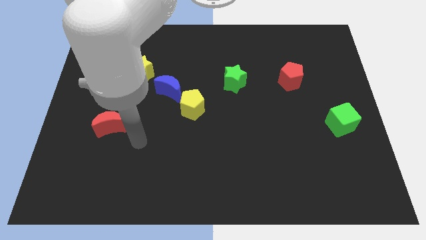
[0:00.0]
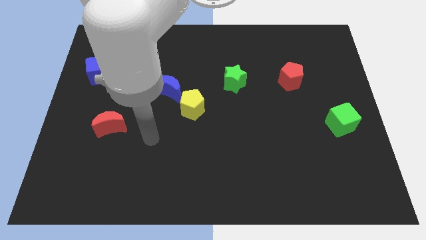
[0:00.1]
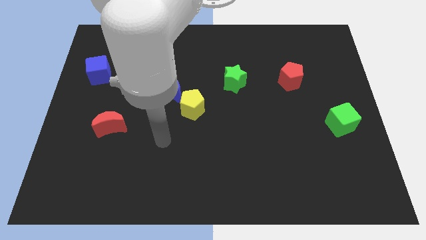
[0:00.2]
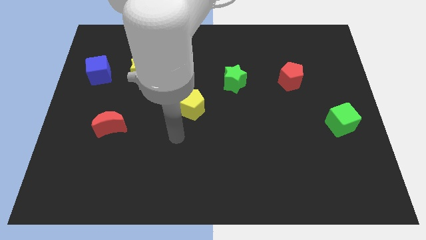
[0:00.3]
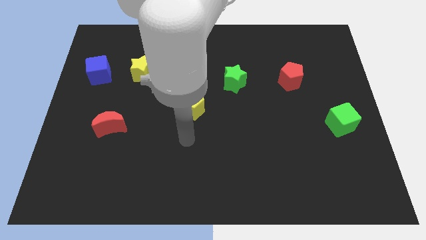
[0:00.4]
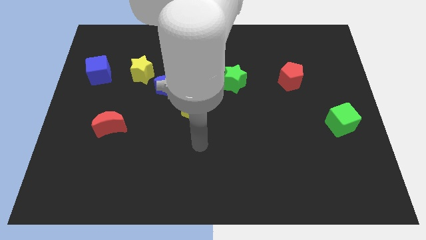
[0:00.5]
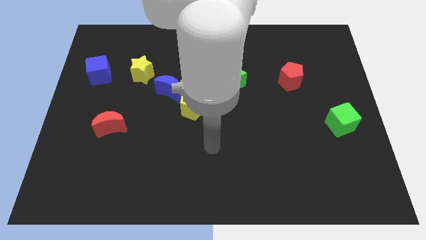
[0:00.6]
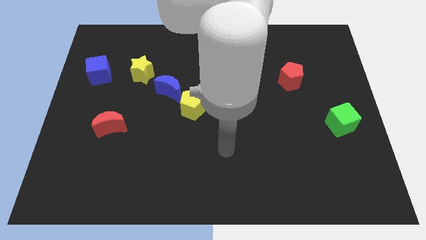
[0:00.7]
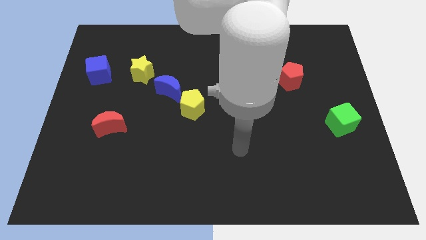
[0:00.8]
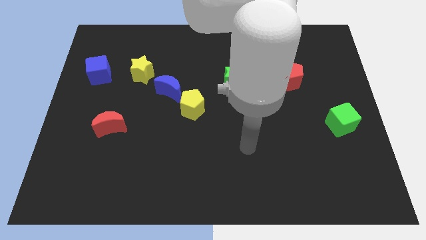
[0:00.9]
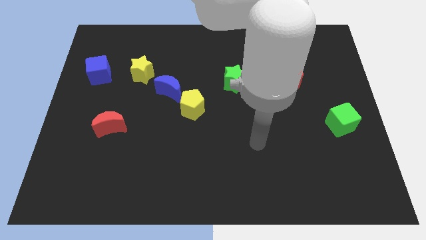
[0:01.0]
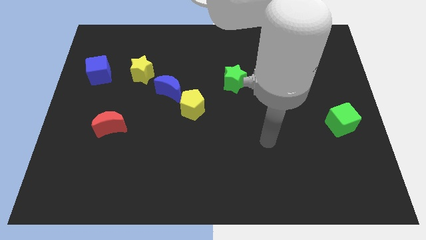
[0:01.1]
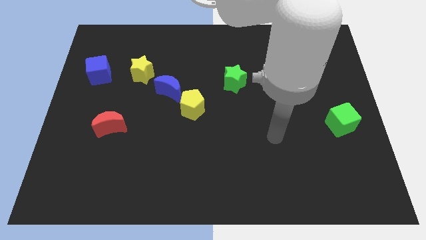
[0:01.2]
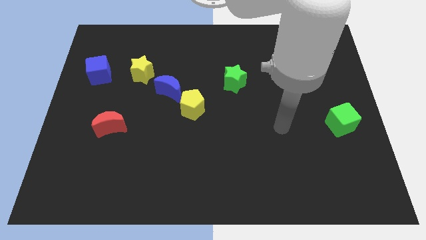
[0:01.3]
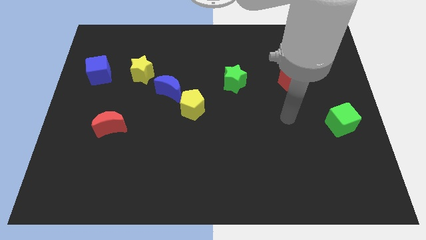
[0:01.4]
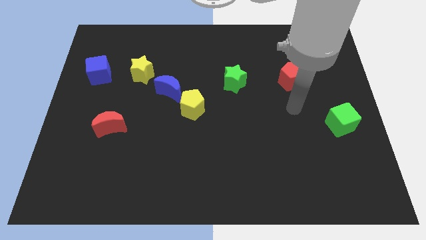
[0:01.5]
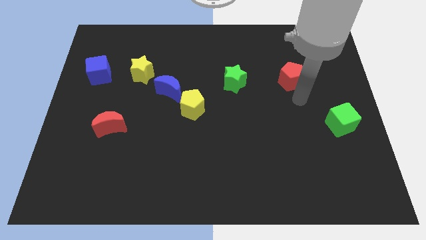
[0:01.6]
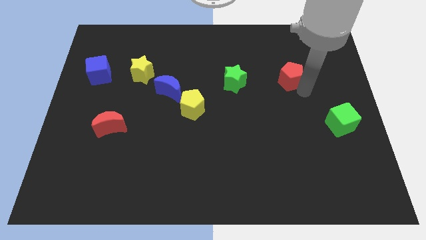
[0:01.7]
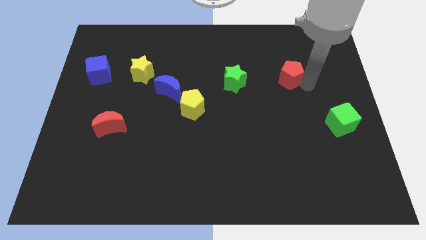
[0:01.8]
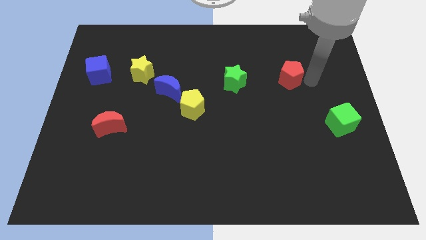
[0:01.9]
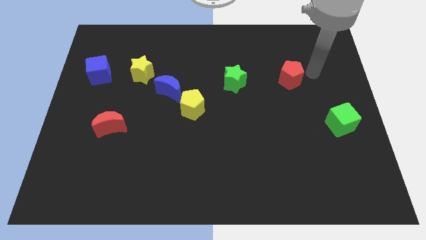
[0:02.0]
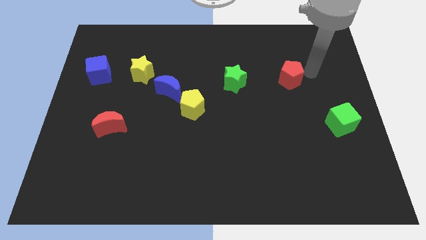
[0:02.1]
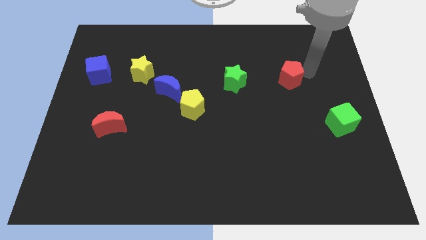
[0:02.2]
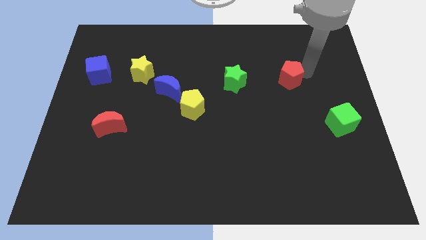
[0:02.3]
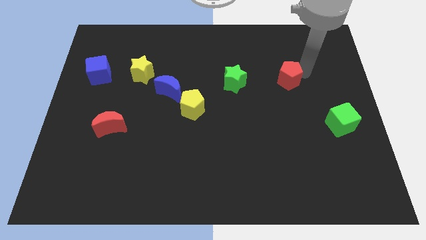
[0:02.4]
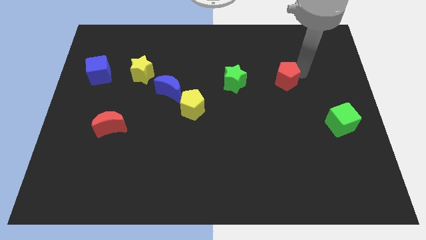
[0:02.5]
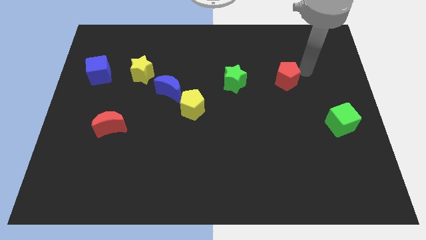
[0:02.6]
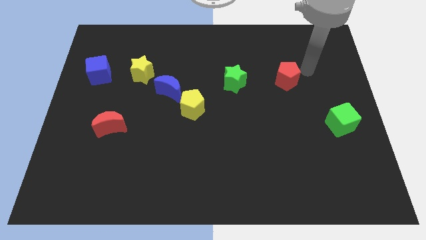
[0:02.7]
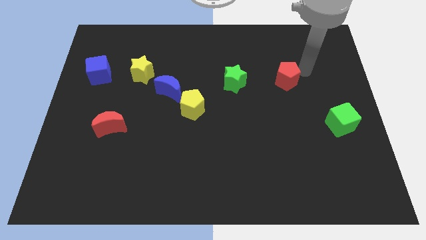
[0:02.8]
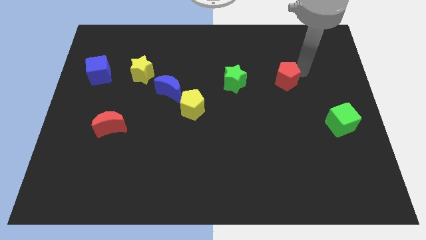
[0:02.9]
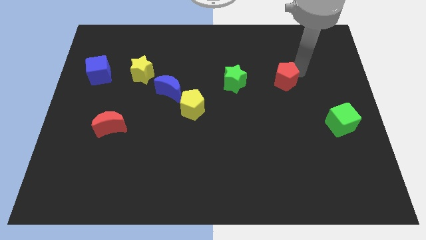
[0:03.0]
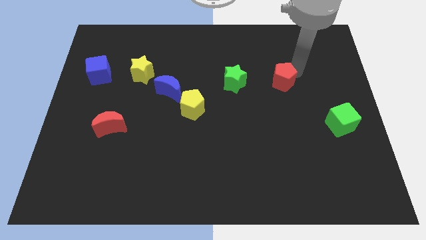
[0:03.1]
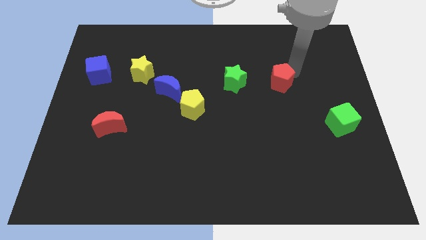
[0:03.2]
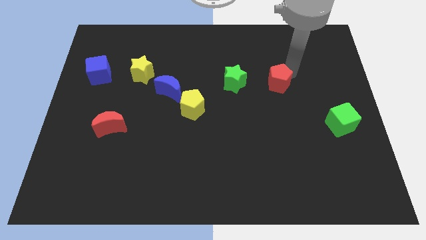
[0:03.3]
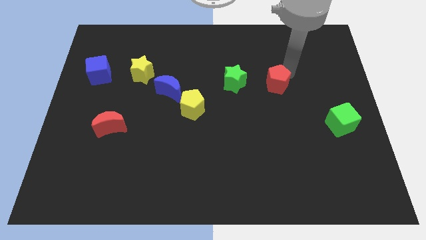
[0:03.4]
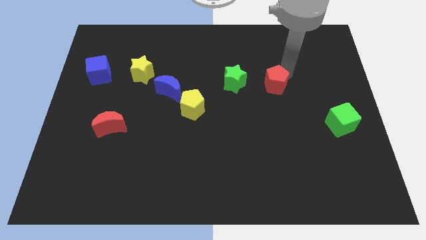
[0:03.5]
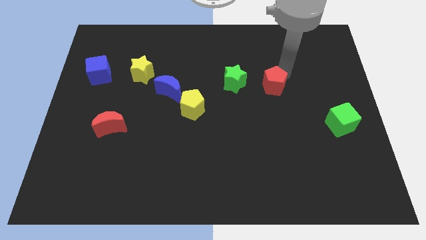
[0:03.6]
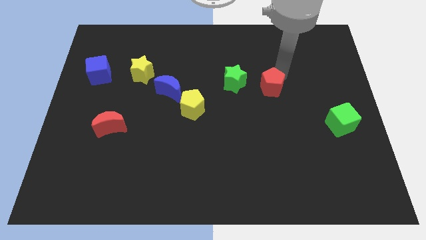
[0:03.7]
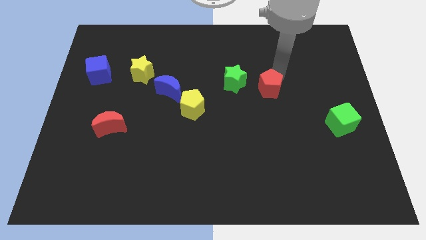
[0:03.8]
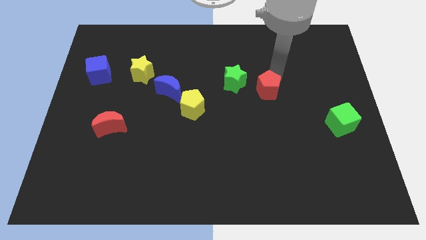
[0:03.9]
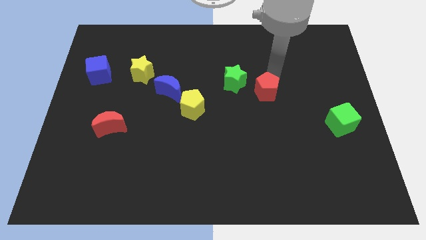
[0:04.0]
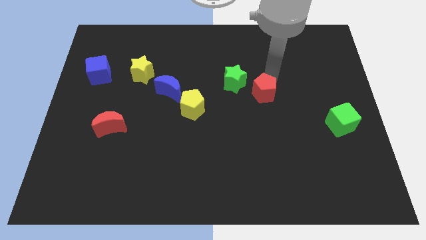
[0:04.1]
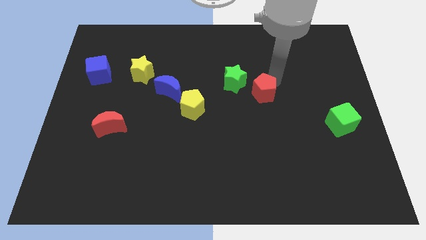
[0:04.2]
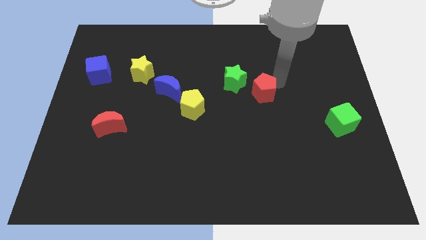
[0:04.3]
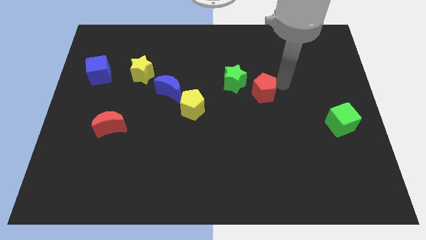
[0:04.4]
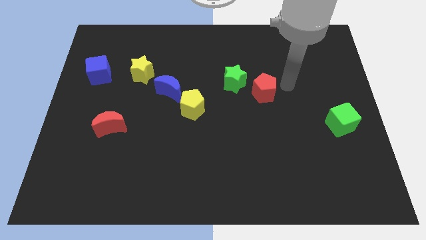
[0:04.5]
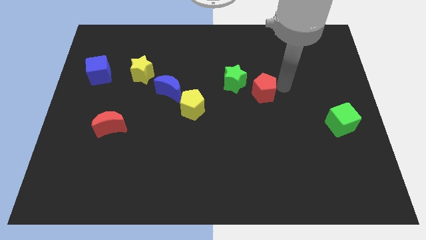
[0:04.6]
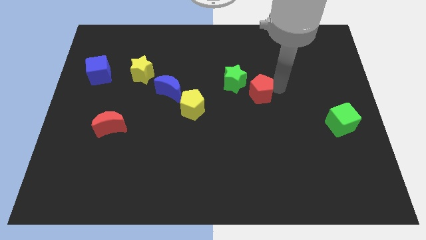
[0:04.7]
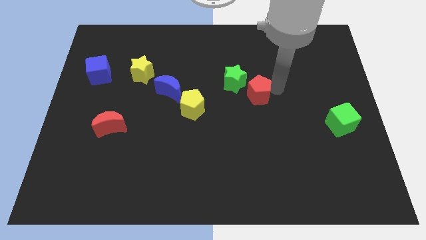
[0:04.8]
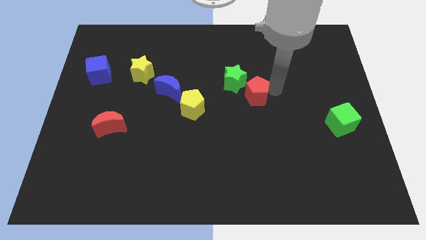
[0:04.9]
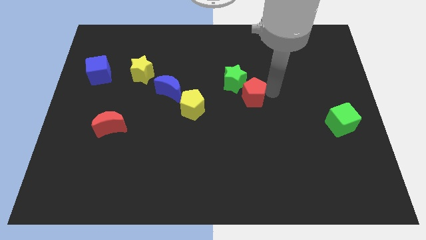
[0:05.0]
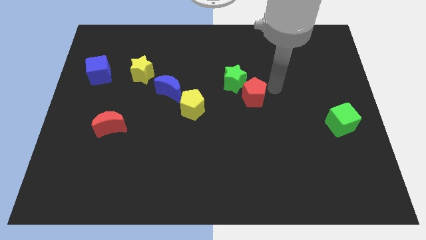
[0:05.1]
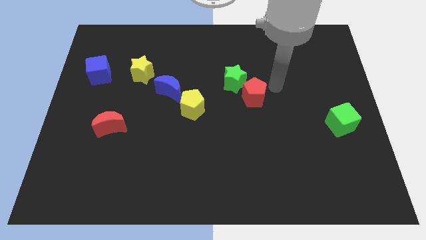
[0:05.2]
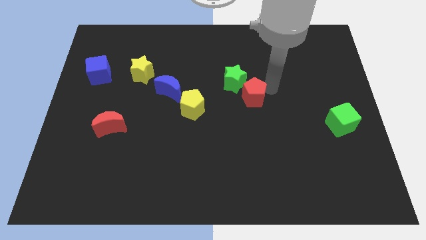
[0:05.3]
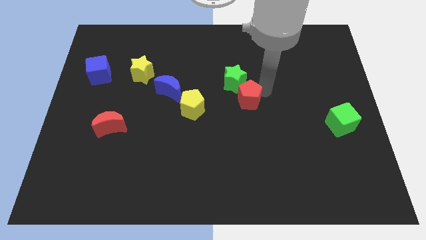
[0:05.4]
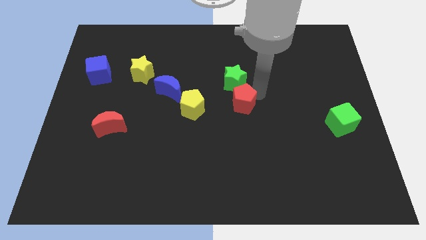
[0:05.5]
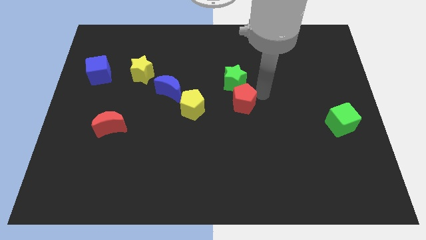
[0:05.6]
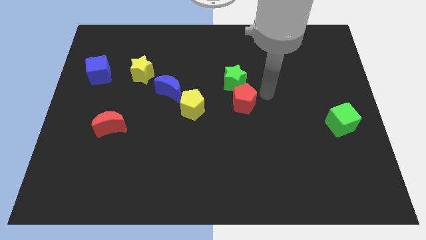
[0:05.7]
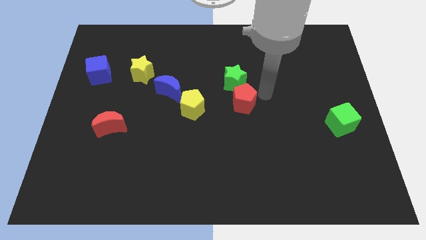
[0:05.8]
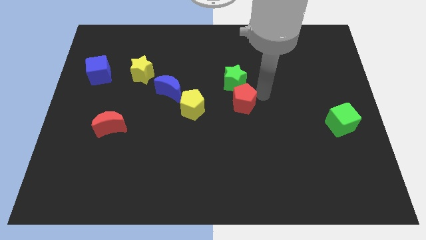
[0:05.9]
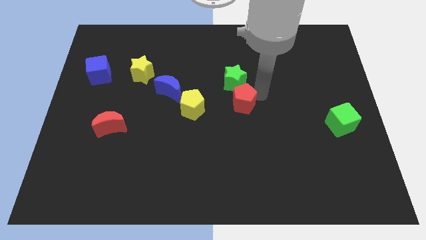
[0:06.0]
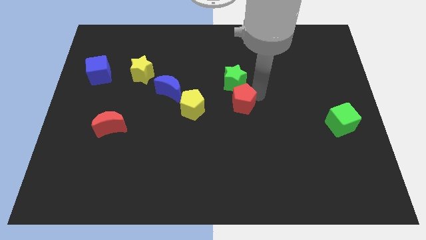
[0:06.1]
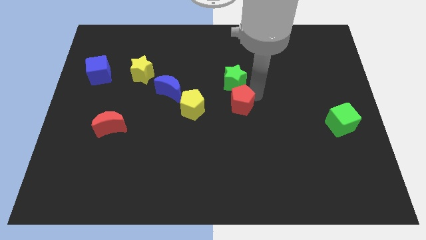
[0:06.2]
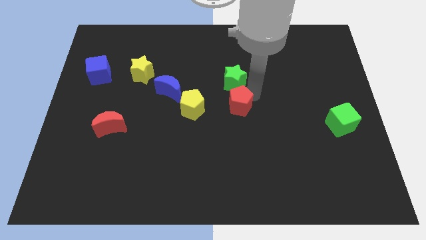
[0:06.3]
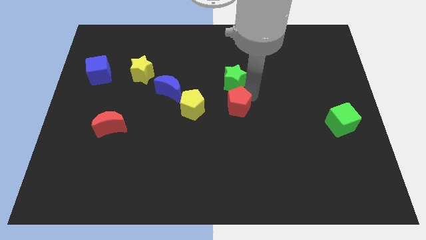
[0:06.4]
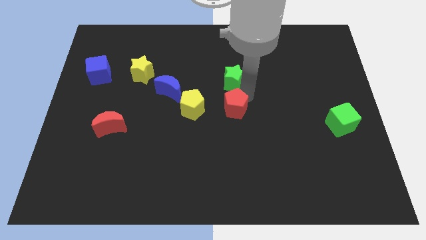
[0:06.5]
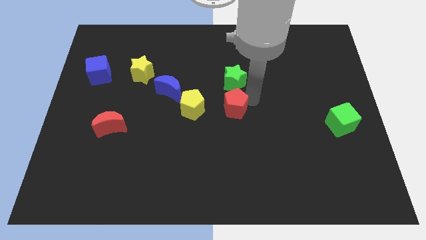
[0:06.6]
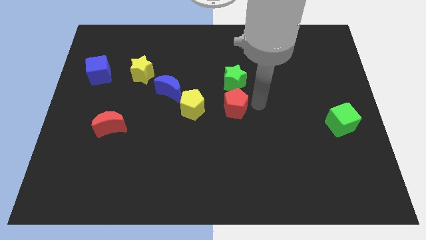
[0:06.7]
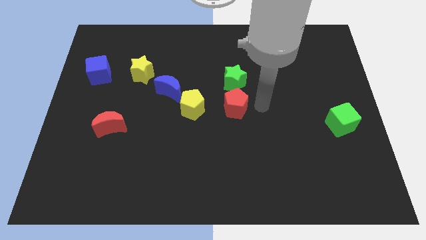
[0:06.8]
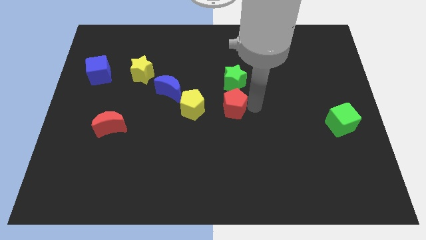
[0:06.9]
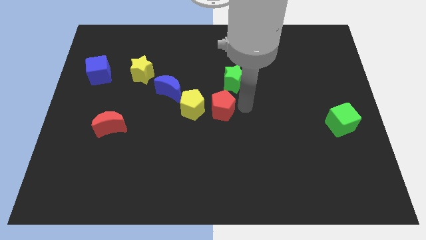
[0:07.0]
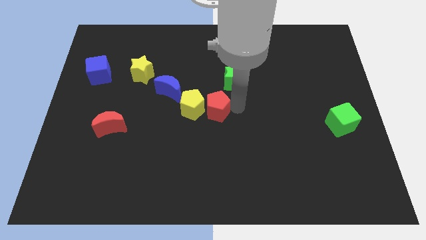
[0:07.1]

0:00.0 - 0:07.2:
move the red pentagon towards the yellow pentagon
